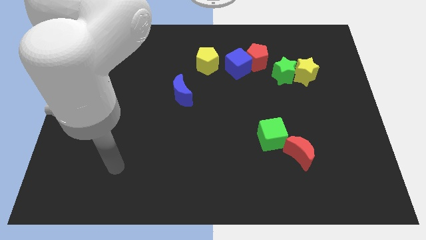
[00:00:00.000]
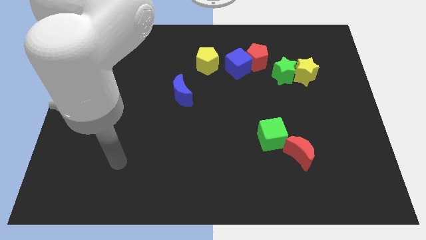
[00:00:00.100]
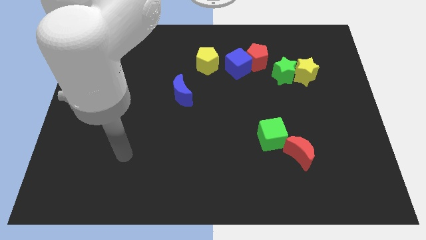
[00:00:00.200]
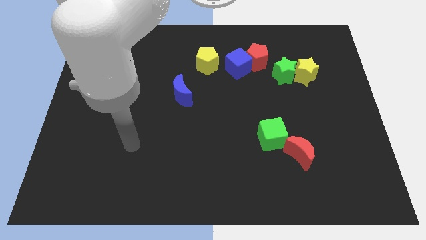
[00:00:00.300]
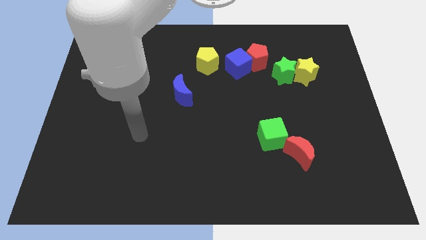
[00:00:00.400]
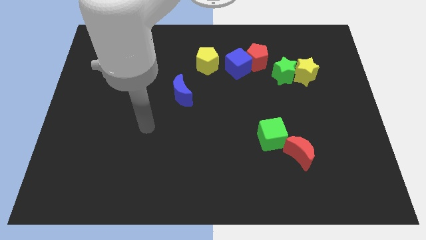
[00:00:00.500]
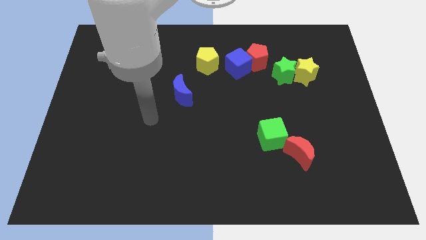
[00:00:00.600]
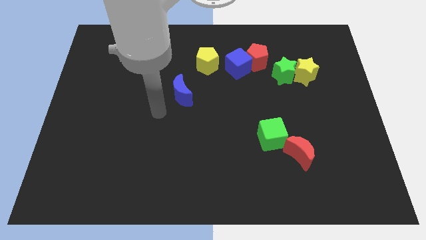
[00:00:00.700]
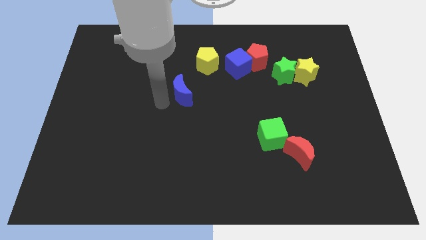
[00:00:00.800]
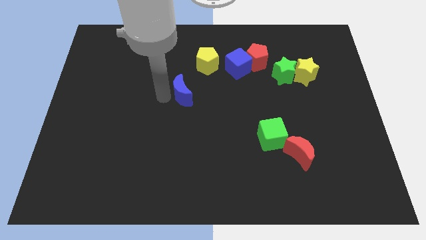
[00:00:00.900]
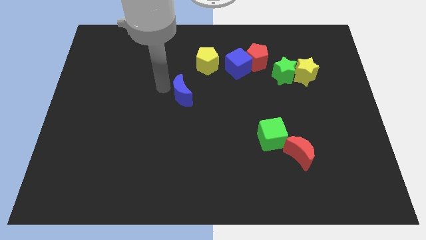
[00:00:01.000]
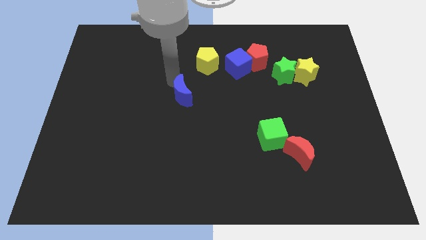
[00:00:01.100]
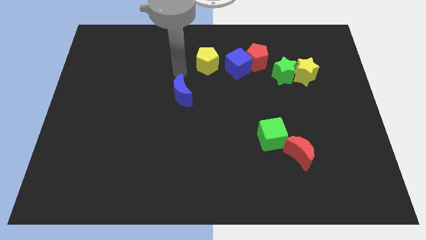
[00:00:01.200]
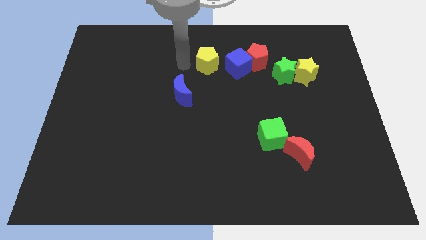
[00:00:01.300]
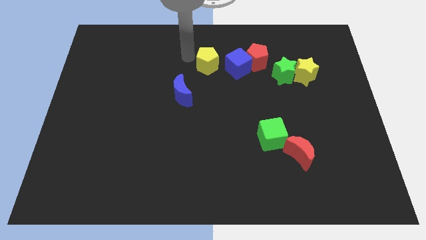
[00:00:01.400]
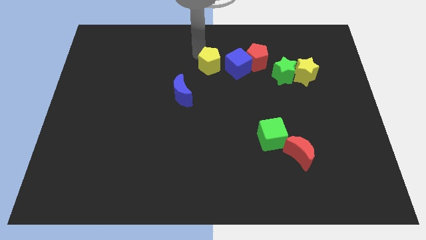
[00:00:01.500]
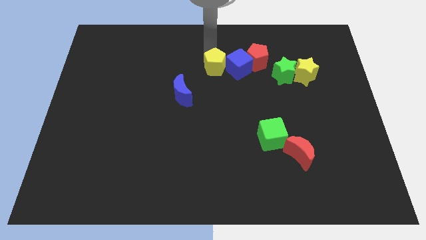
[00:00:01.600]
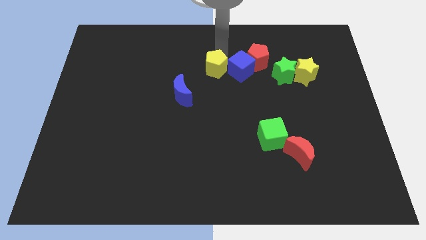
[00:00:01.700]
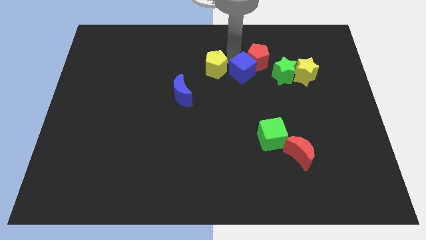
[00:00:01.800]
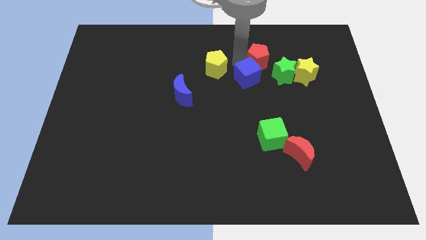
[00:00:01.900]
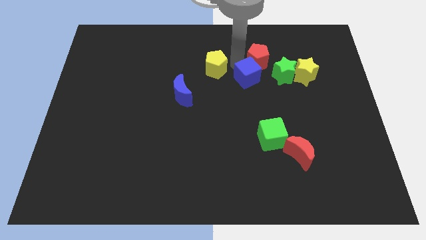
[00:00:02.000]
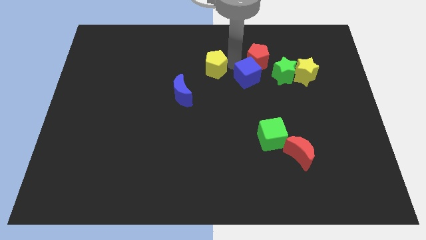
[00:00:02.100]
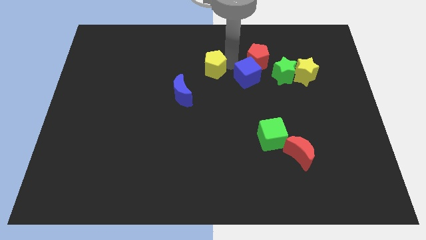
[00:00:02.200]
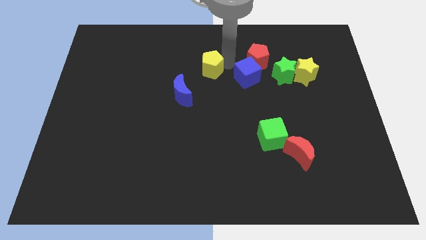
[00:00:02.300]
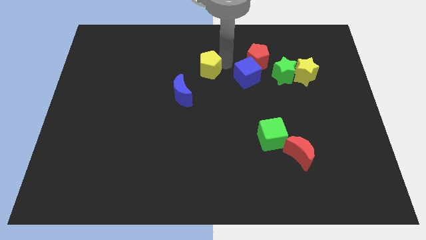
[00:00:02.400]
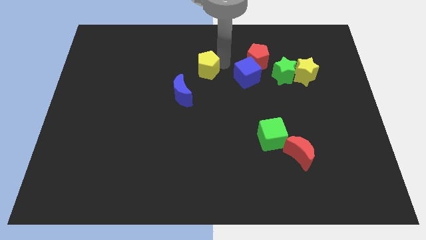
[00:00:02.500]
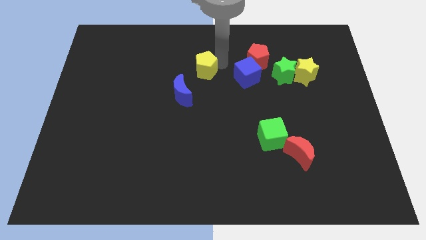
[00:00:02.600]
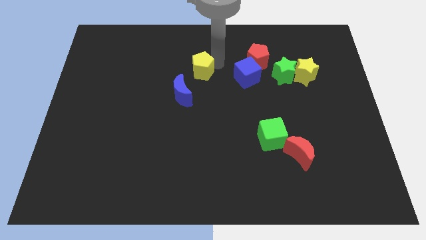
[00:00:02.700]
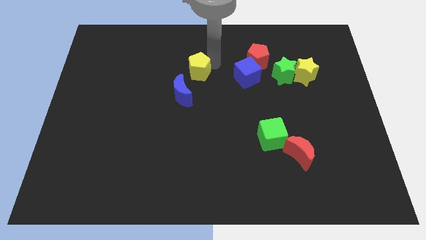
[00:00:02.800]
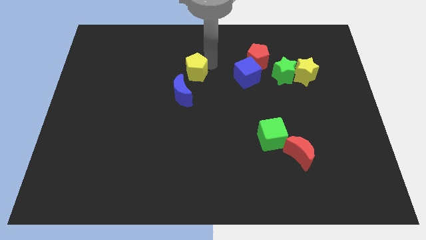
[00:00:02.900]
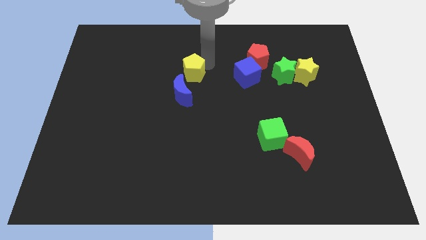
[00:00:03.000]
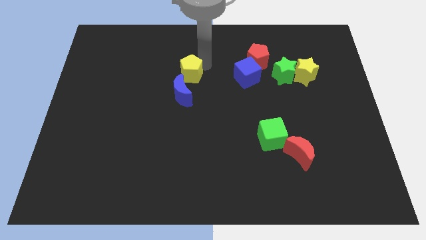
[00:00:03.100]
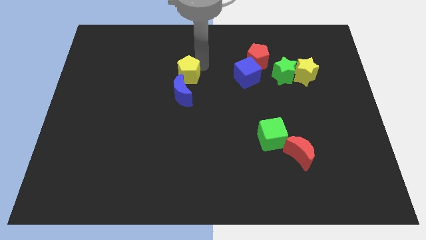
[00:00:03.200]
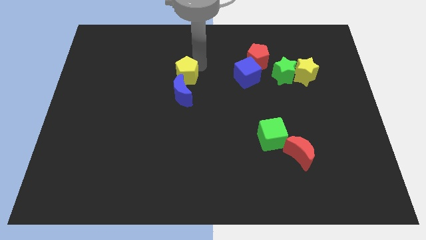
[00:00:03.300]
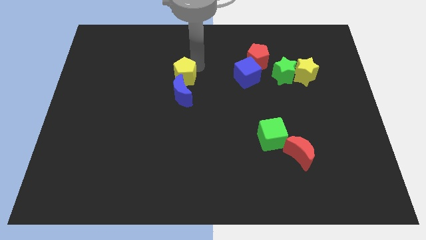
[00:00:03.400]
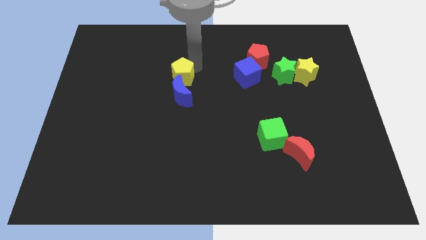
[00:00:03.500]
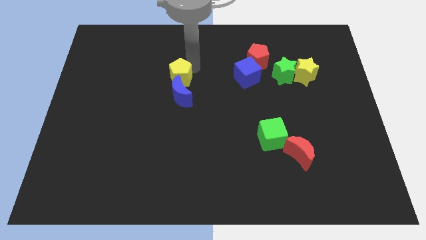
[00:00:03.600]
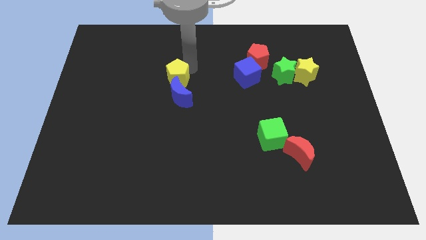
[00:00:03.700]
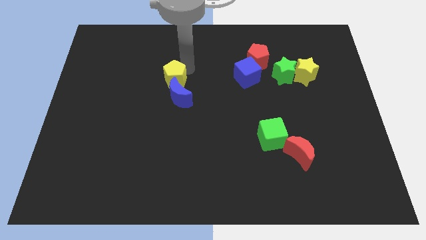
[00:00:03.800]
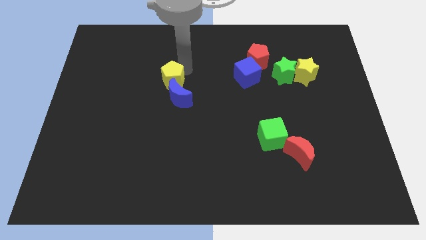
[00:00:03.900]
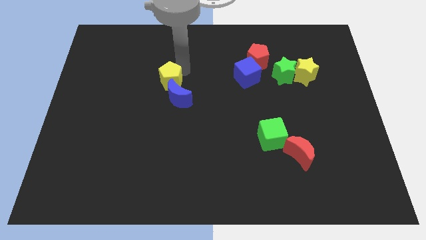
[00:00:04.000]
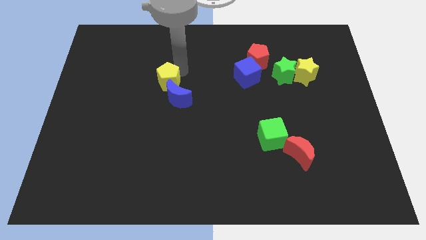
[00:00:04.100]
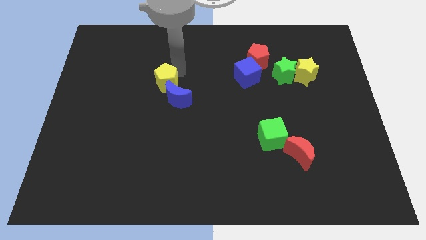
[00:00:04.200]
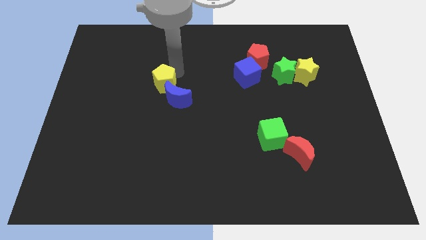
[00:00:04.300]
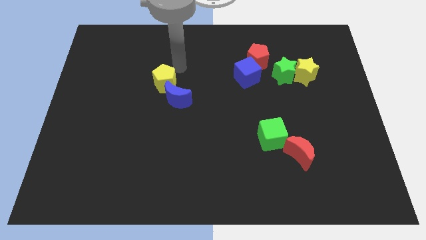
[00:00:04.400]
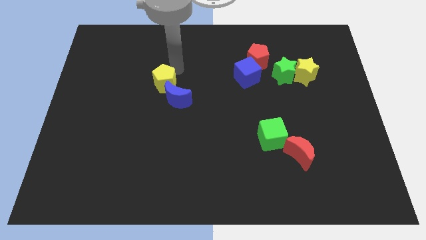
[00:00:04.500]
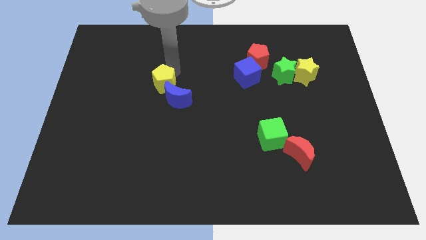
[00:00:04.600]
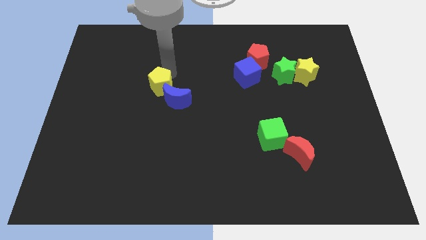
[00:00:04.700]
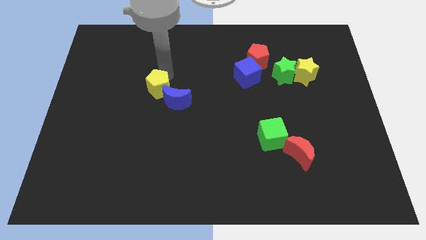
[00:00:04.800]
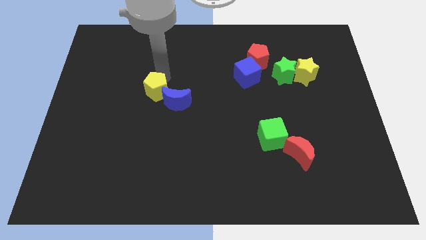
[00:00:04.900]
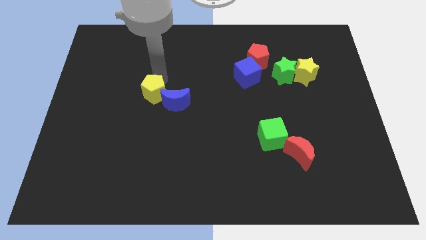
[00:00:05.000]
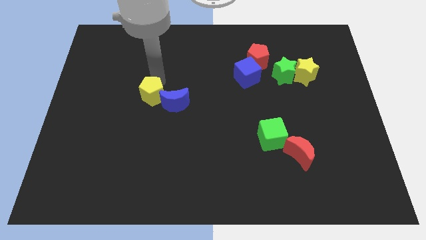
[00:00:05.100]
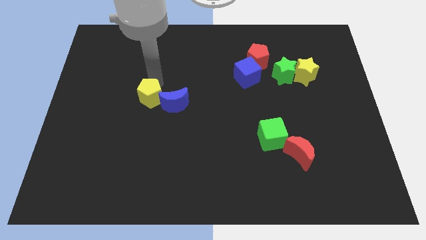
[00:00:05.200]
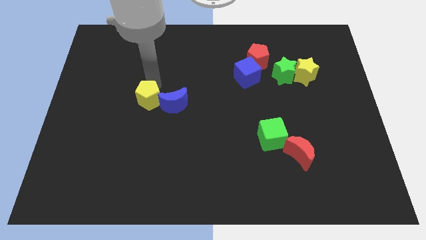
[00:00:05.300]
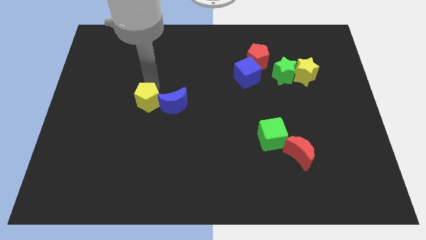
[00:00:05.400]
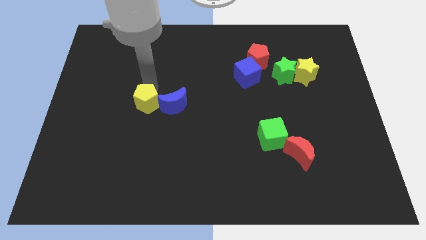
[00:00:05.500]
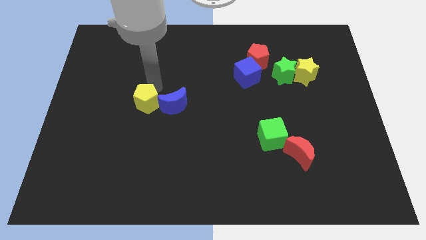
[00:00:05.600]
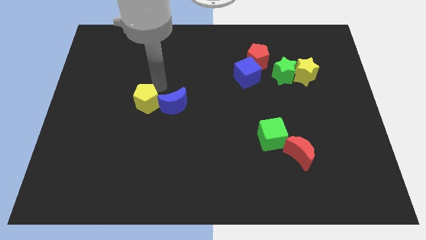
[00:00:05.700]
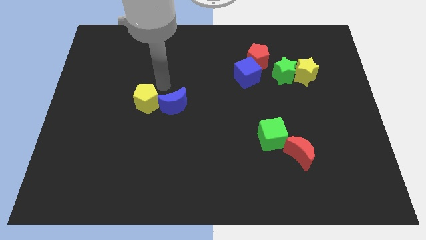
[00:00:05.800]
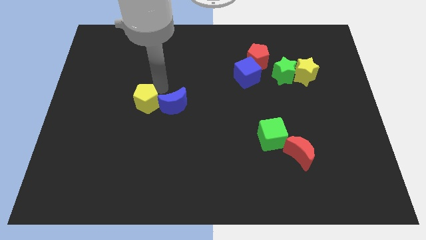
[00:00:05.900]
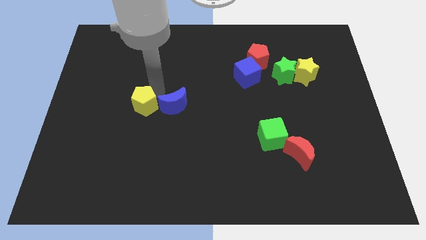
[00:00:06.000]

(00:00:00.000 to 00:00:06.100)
push the yellow pentagon diagonally downwards and left

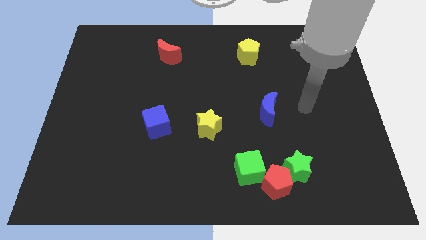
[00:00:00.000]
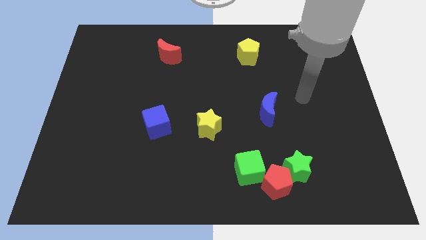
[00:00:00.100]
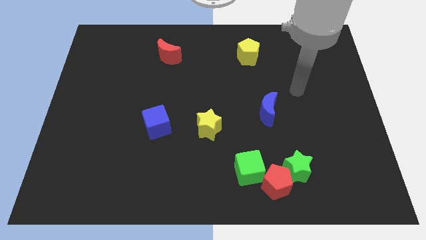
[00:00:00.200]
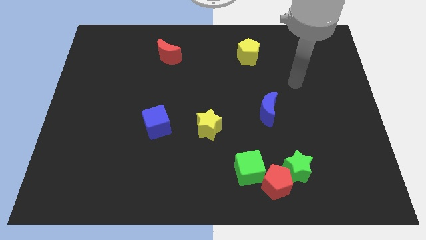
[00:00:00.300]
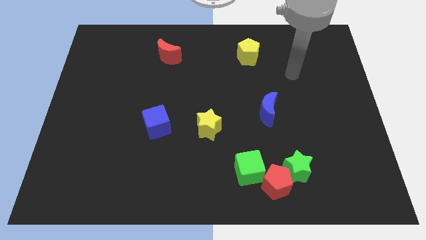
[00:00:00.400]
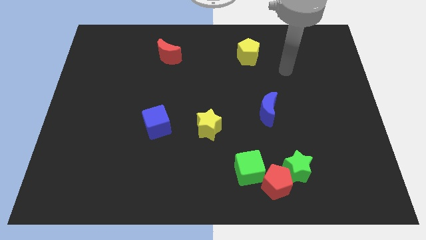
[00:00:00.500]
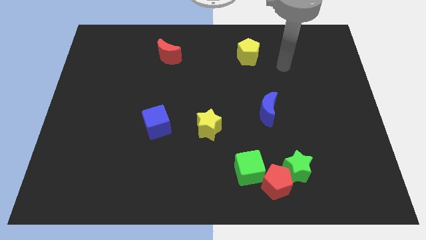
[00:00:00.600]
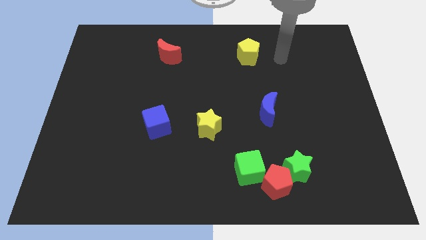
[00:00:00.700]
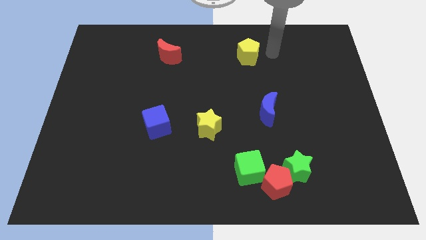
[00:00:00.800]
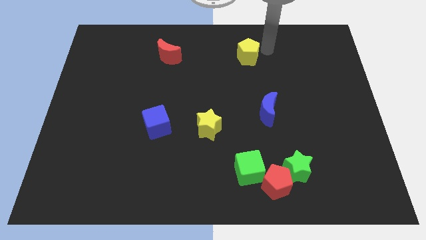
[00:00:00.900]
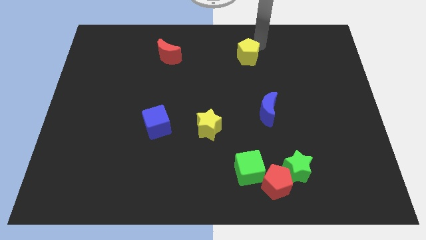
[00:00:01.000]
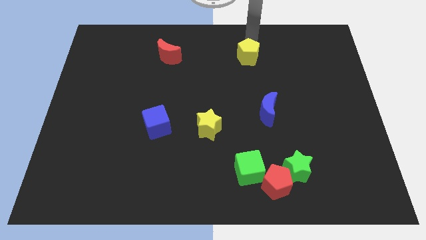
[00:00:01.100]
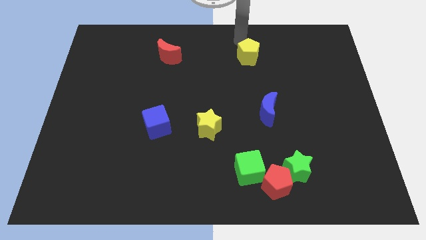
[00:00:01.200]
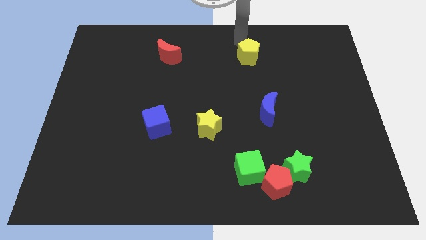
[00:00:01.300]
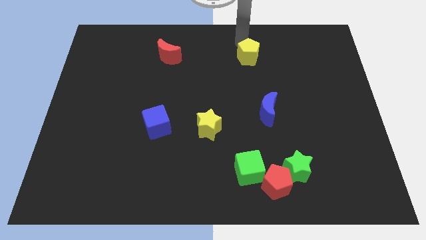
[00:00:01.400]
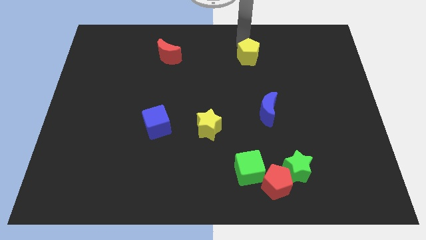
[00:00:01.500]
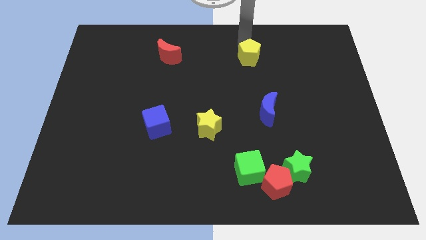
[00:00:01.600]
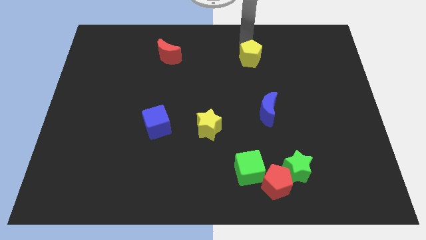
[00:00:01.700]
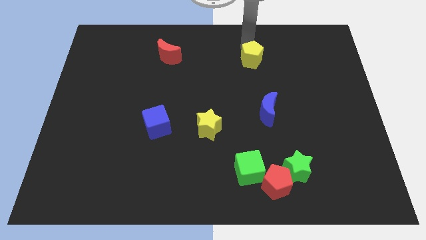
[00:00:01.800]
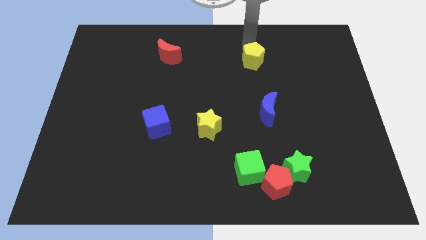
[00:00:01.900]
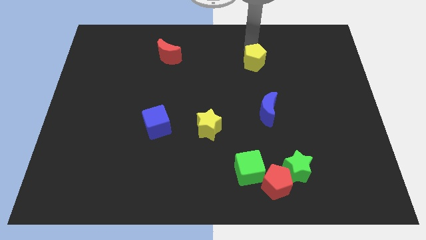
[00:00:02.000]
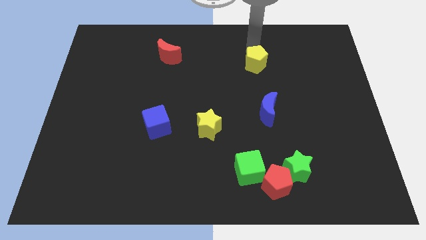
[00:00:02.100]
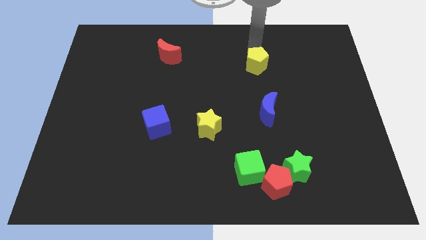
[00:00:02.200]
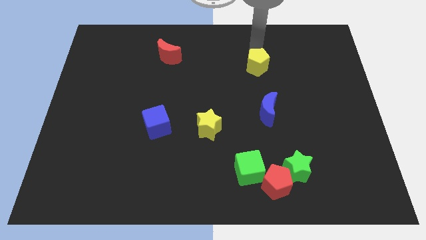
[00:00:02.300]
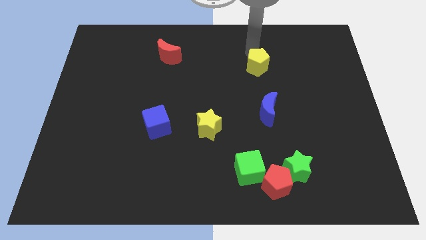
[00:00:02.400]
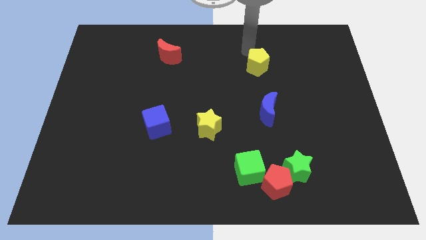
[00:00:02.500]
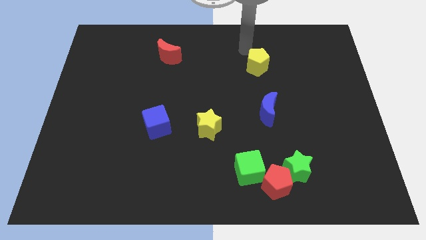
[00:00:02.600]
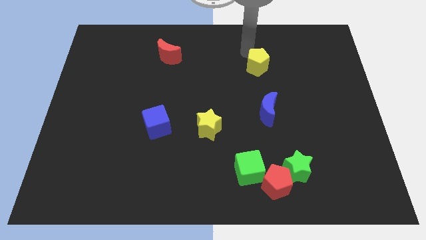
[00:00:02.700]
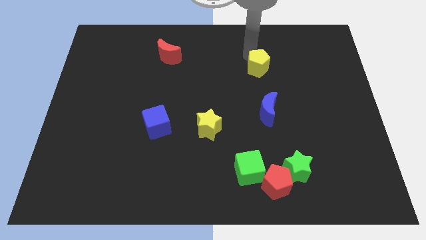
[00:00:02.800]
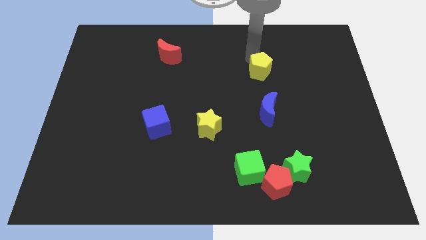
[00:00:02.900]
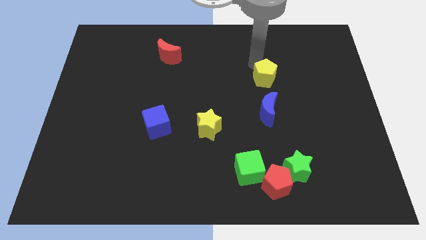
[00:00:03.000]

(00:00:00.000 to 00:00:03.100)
slide the yellow pentagon a little bit diagonally downwards and right
